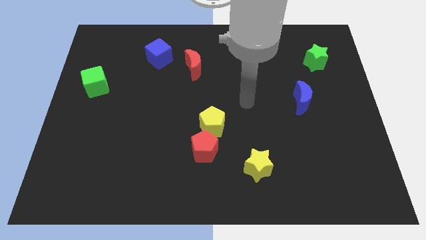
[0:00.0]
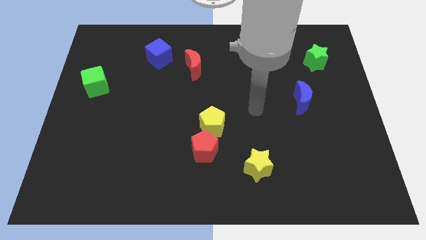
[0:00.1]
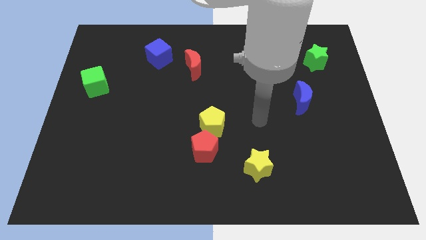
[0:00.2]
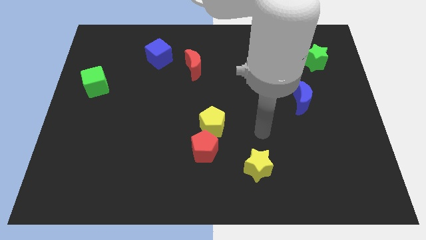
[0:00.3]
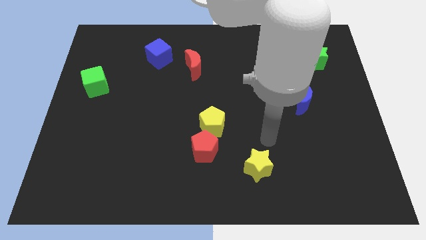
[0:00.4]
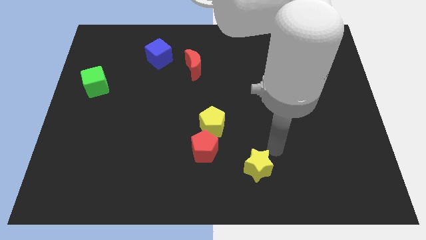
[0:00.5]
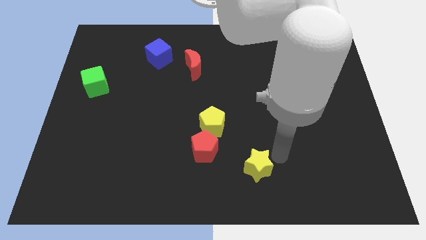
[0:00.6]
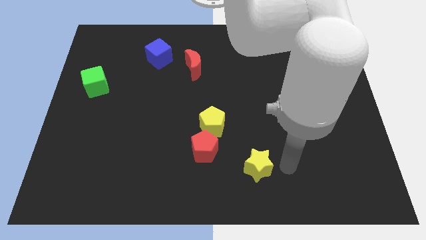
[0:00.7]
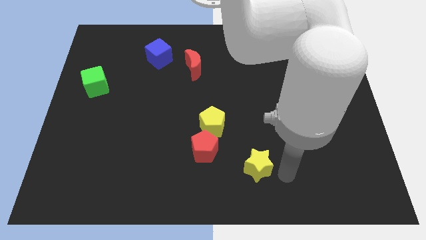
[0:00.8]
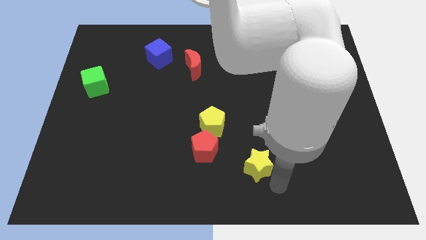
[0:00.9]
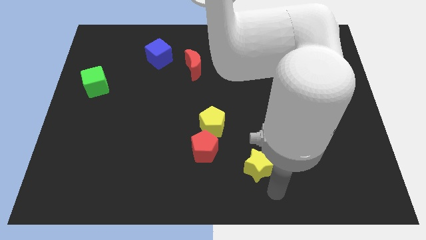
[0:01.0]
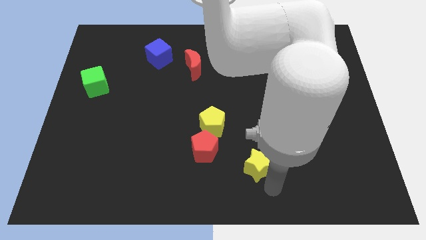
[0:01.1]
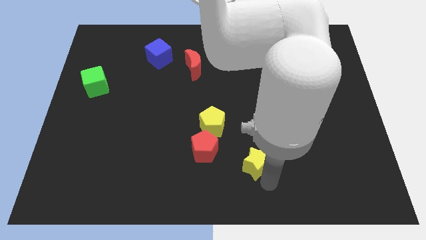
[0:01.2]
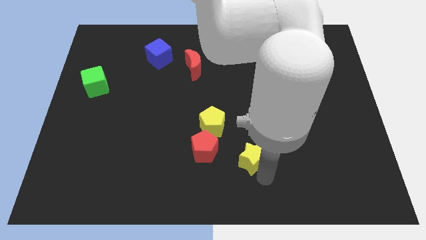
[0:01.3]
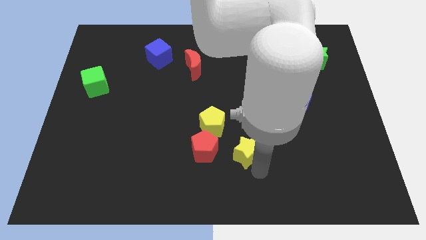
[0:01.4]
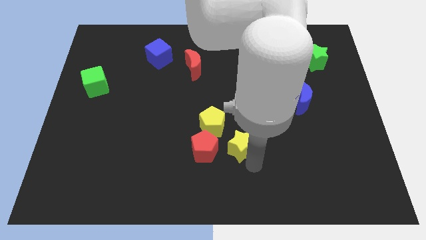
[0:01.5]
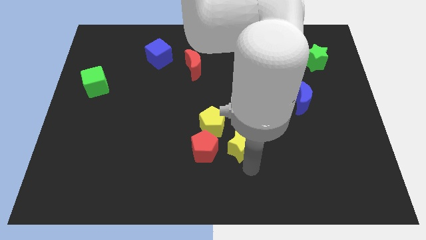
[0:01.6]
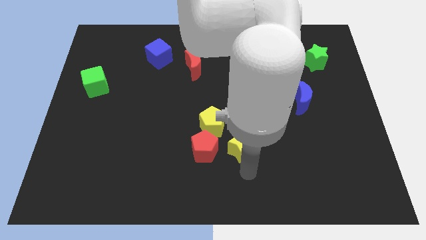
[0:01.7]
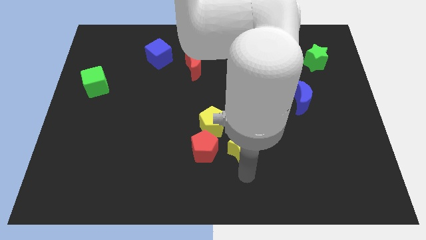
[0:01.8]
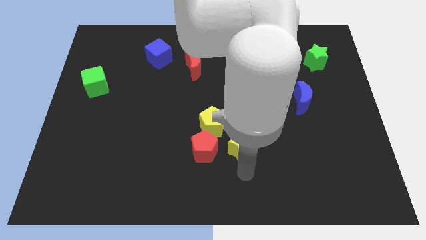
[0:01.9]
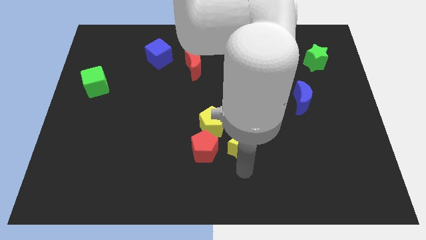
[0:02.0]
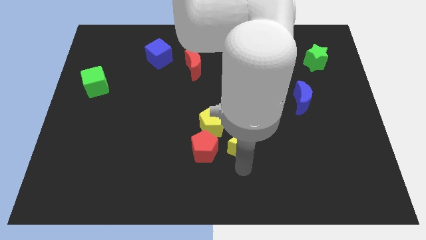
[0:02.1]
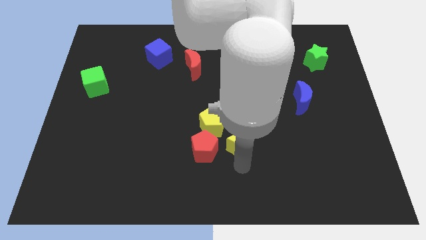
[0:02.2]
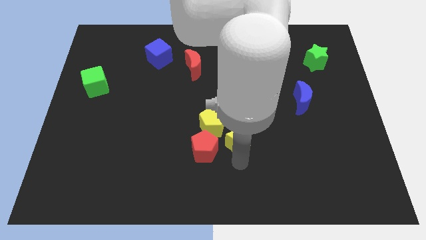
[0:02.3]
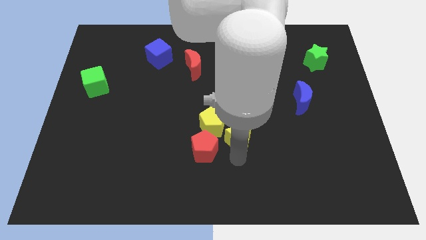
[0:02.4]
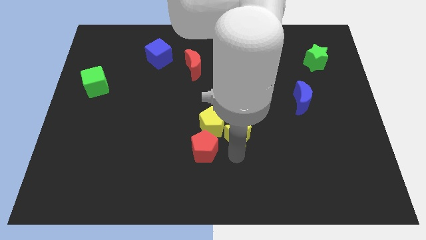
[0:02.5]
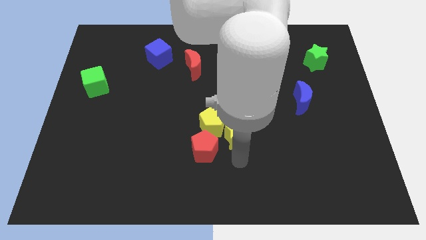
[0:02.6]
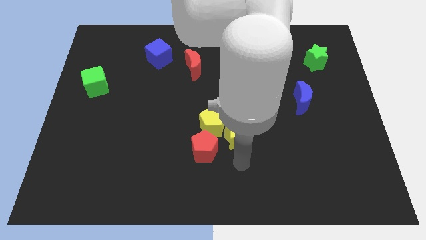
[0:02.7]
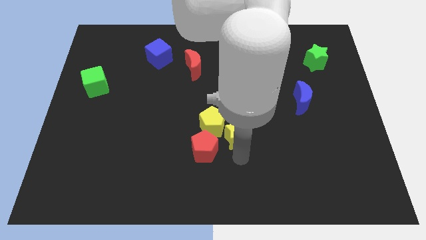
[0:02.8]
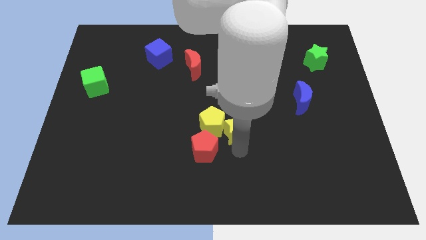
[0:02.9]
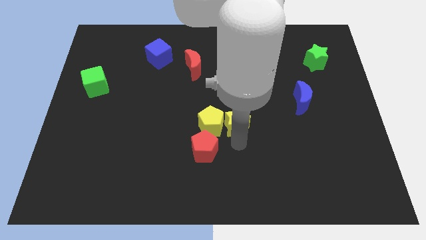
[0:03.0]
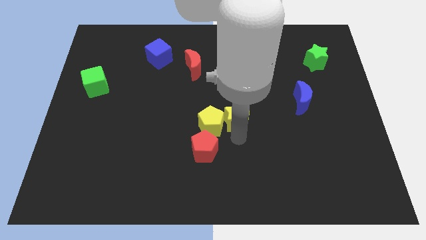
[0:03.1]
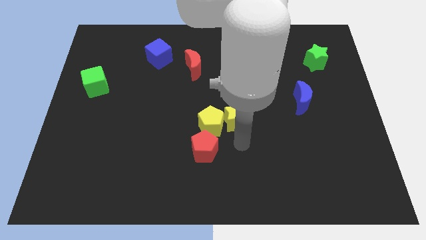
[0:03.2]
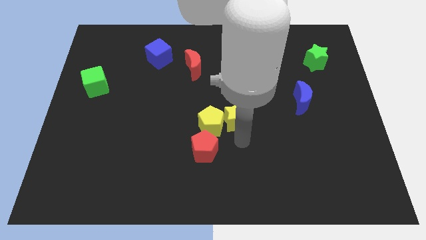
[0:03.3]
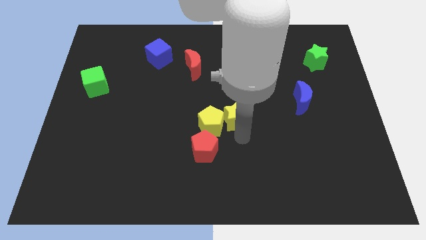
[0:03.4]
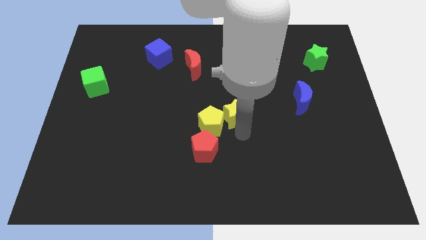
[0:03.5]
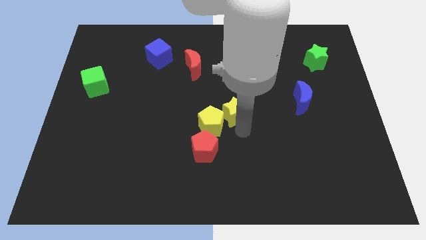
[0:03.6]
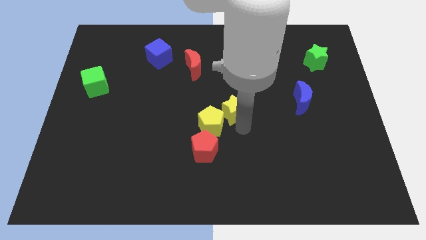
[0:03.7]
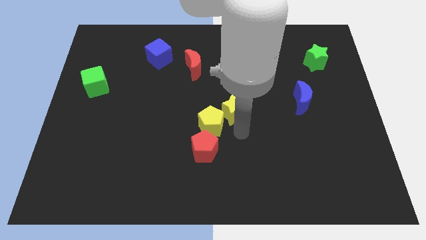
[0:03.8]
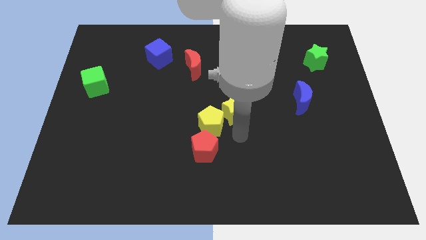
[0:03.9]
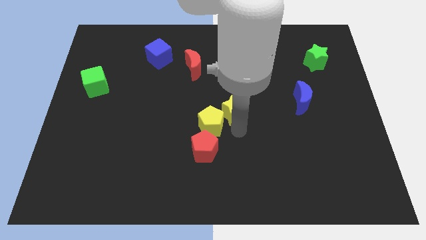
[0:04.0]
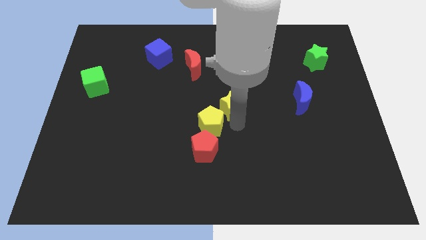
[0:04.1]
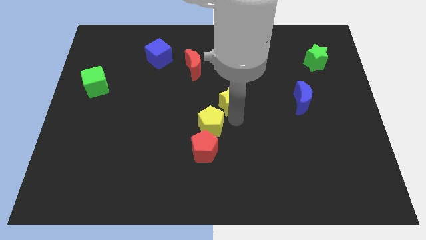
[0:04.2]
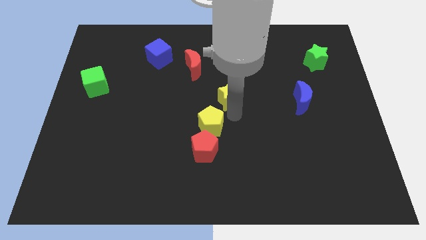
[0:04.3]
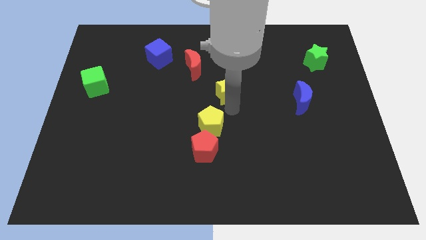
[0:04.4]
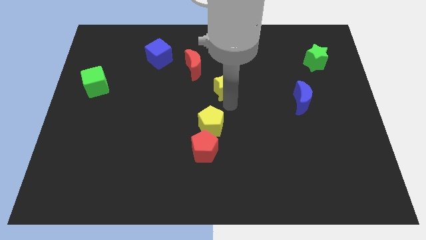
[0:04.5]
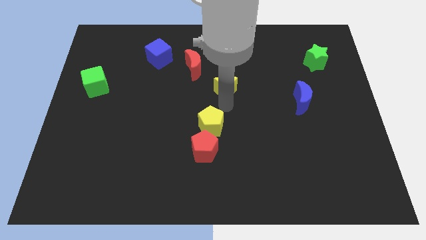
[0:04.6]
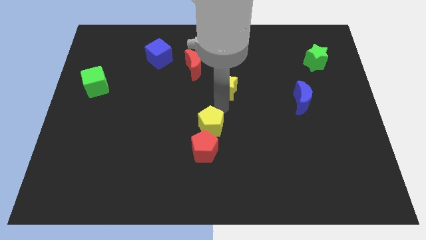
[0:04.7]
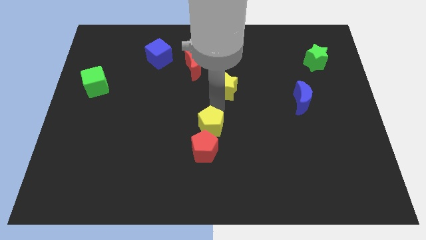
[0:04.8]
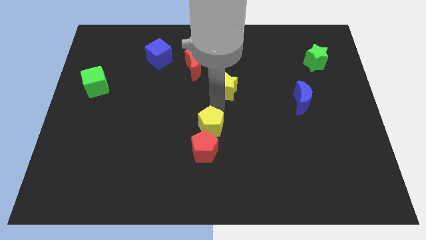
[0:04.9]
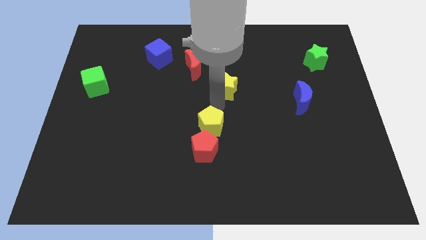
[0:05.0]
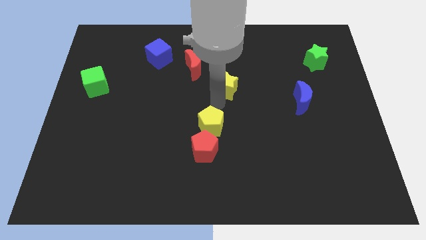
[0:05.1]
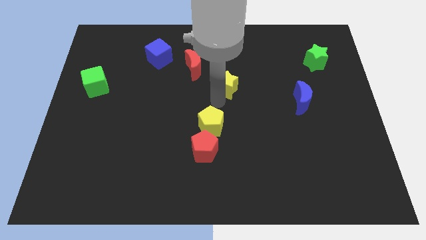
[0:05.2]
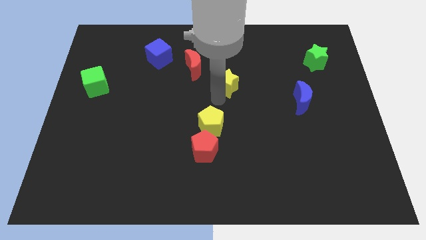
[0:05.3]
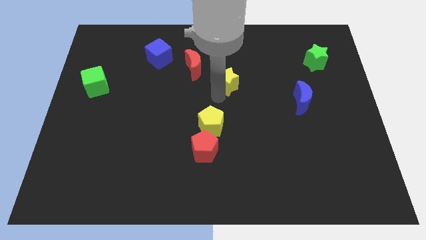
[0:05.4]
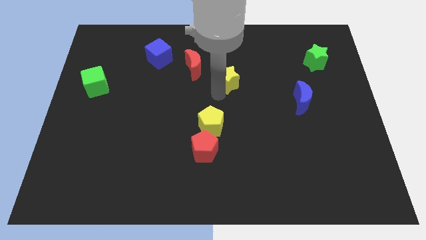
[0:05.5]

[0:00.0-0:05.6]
put the yellow star to the right of the red moon
